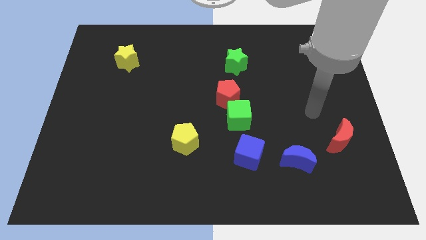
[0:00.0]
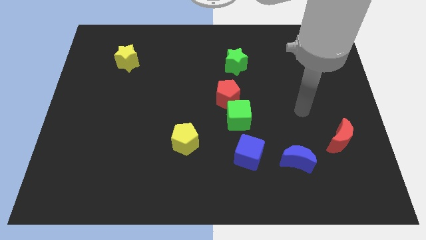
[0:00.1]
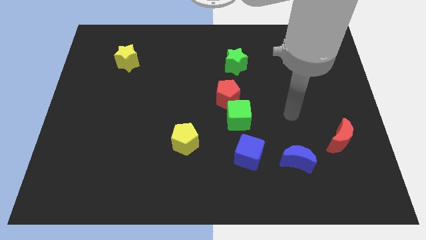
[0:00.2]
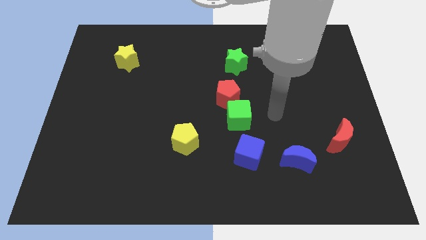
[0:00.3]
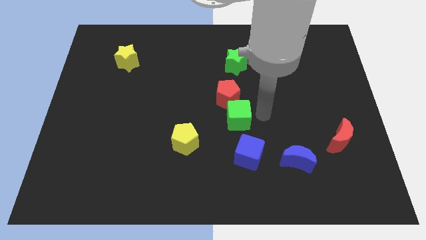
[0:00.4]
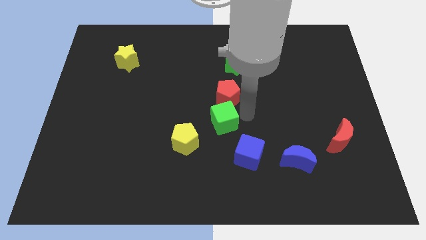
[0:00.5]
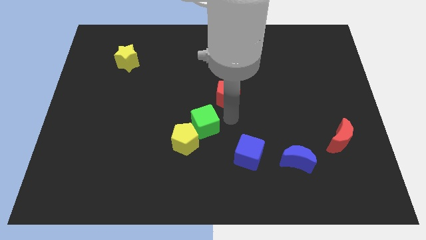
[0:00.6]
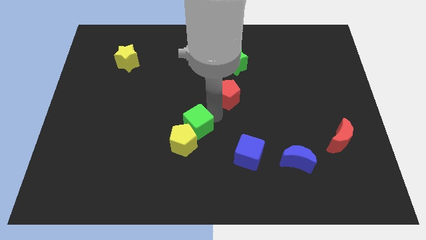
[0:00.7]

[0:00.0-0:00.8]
move the red pentagon away from the green cube

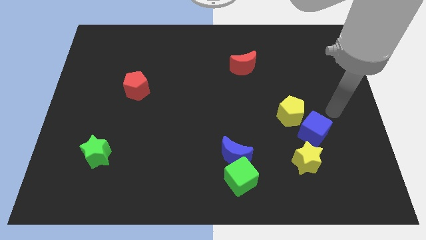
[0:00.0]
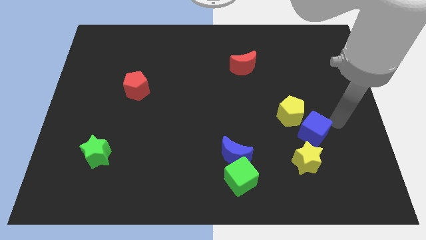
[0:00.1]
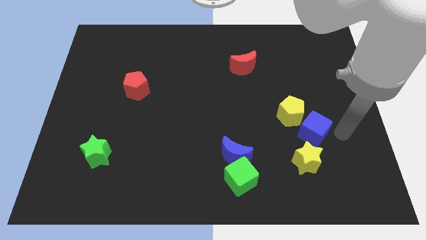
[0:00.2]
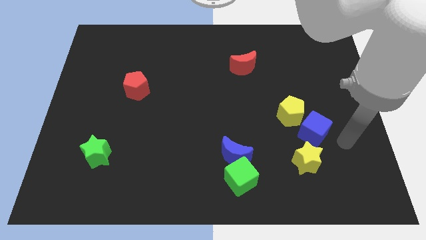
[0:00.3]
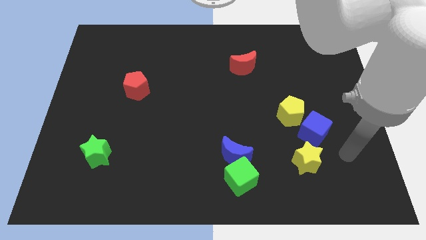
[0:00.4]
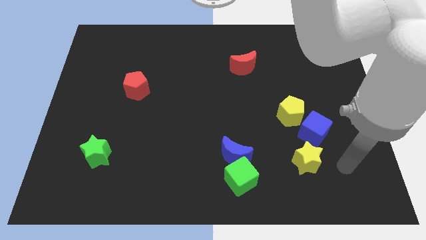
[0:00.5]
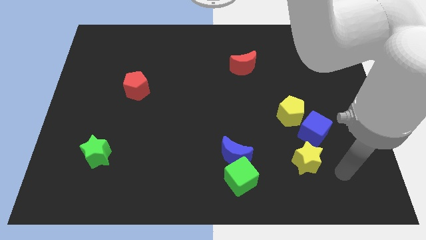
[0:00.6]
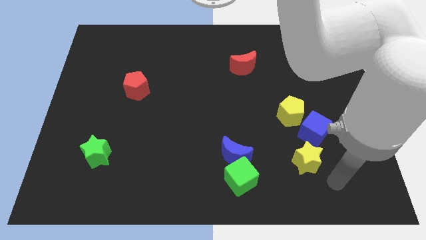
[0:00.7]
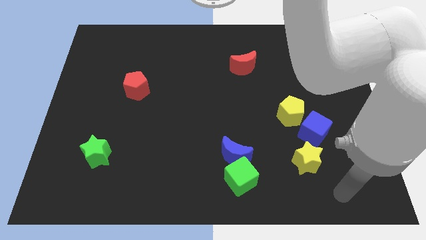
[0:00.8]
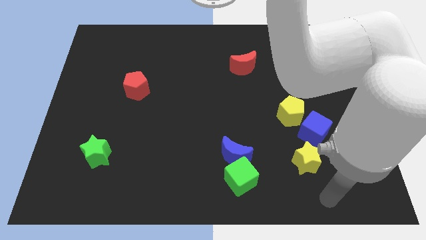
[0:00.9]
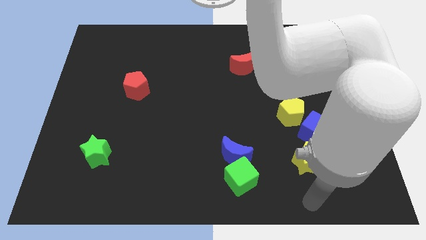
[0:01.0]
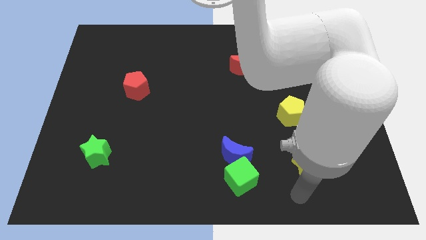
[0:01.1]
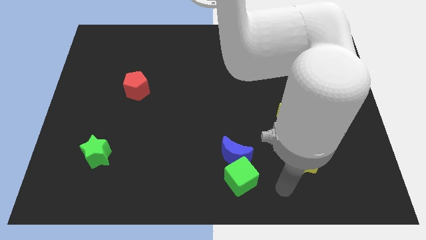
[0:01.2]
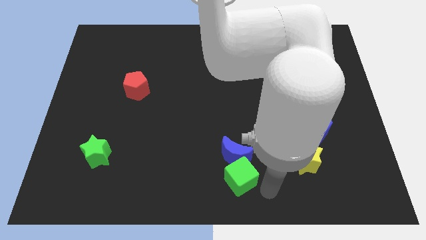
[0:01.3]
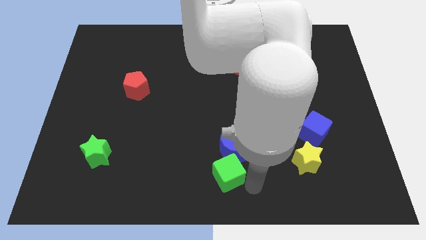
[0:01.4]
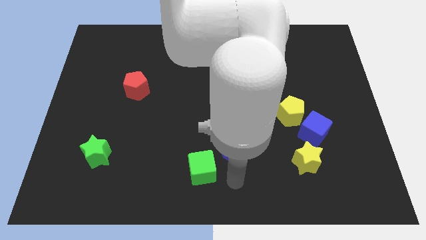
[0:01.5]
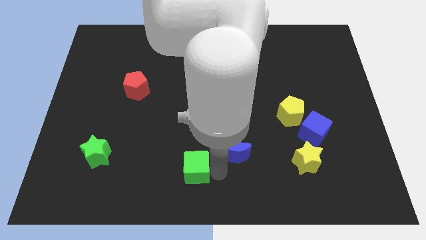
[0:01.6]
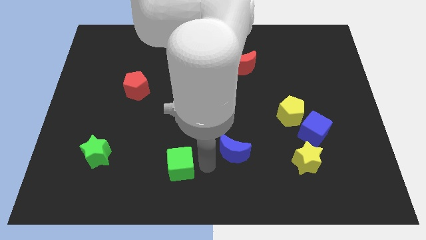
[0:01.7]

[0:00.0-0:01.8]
pull the blue moon apart from the green cube

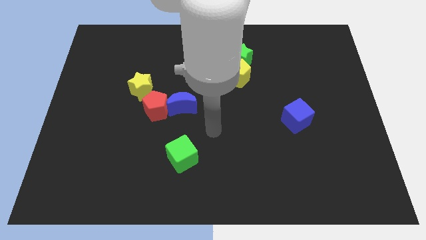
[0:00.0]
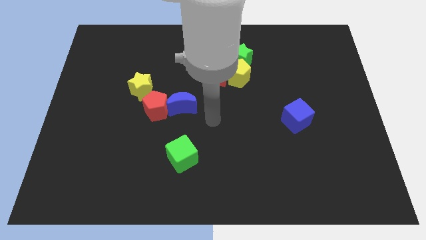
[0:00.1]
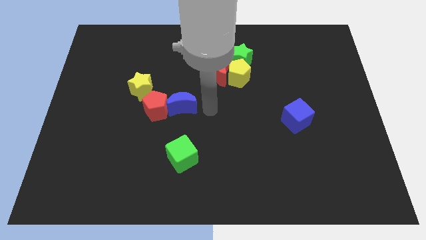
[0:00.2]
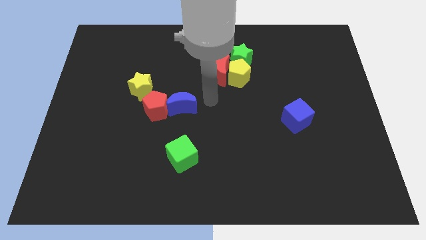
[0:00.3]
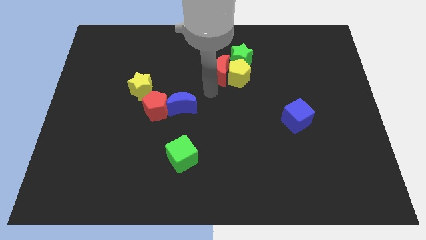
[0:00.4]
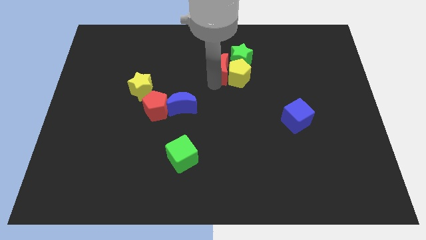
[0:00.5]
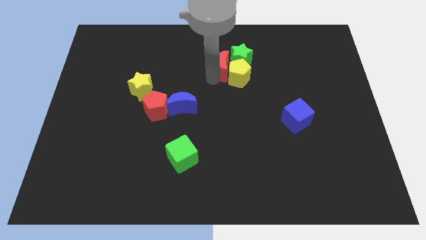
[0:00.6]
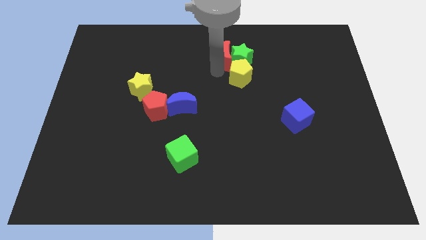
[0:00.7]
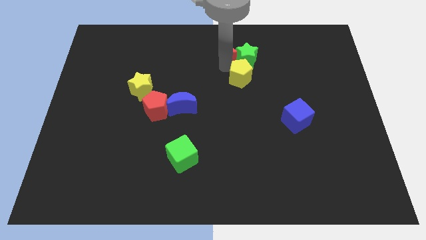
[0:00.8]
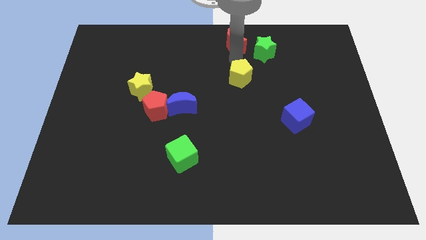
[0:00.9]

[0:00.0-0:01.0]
pull the yellow pentagon apart from the red moon and green star

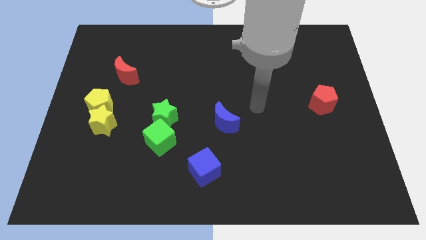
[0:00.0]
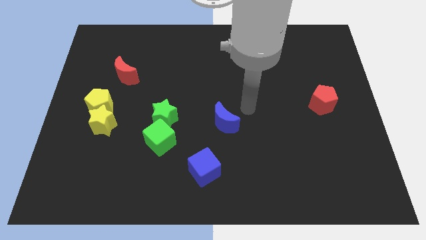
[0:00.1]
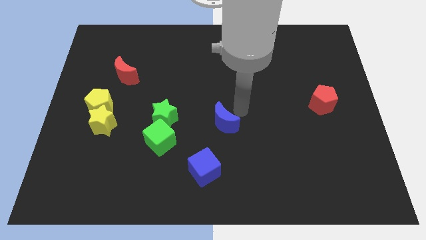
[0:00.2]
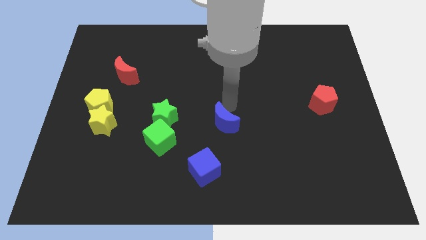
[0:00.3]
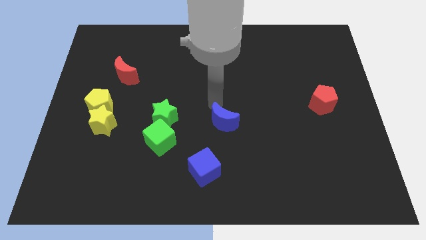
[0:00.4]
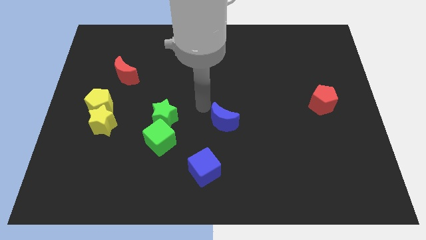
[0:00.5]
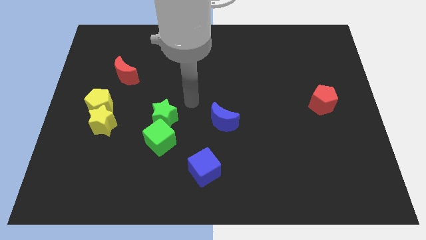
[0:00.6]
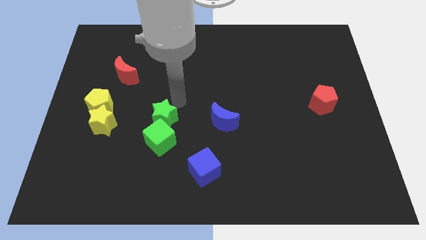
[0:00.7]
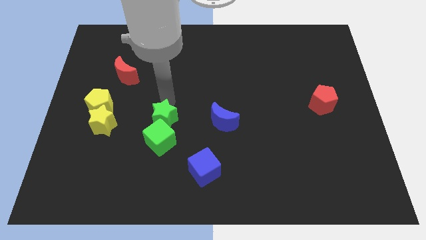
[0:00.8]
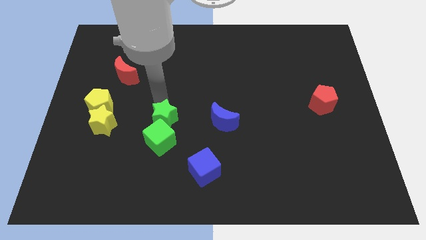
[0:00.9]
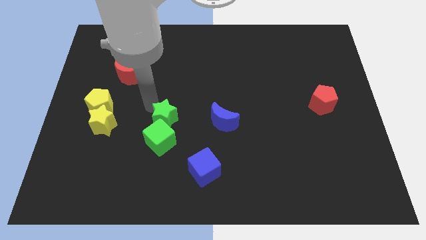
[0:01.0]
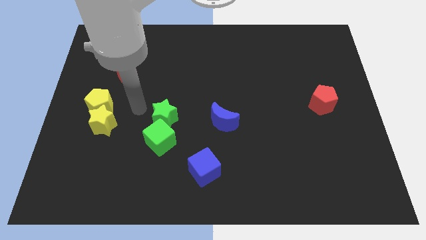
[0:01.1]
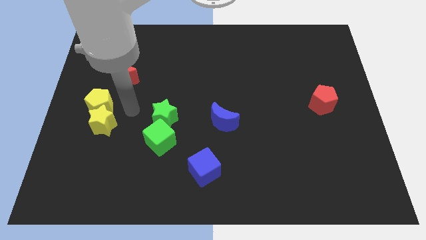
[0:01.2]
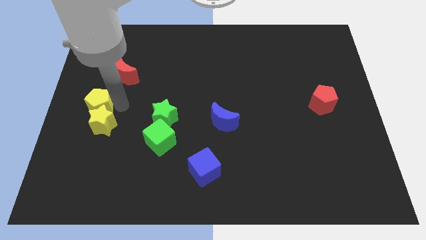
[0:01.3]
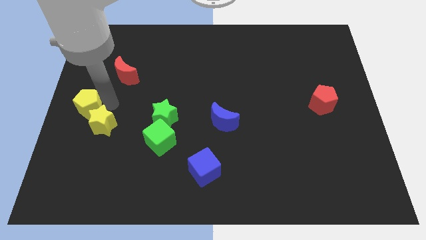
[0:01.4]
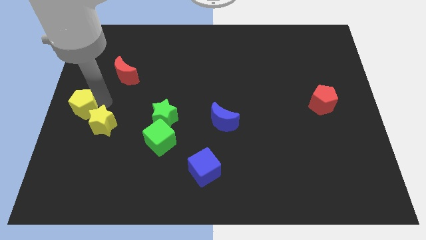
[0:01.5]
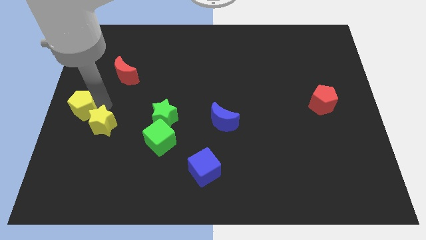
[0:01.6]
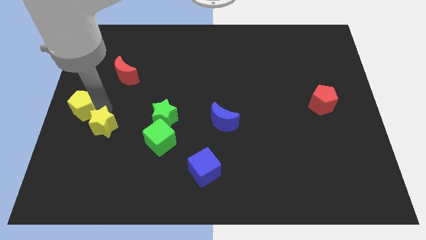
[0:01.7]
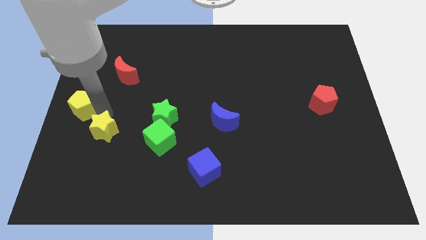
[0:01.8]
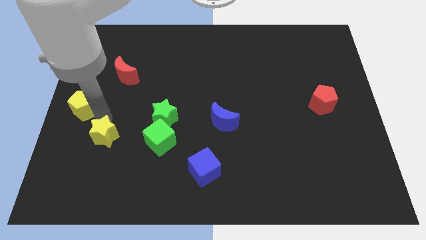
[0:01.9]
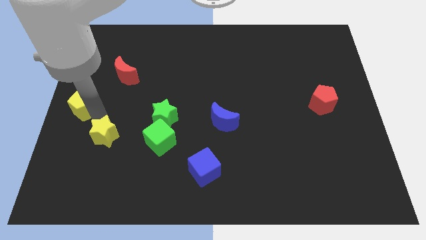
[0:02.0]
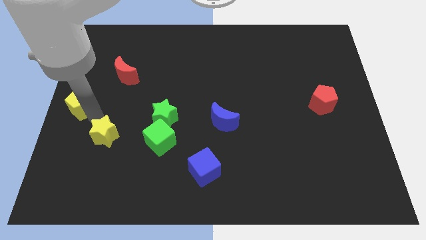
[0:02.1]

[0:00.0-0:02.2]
pull the yellow star apart from the yellow pentagon

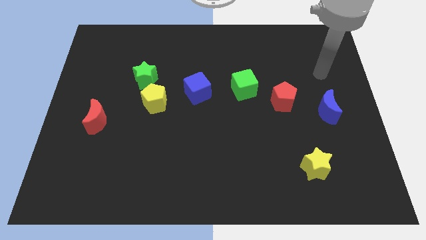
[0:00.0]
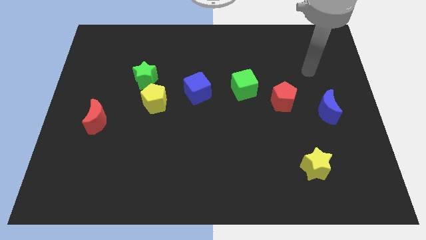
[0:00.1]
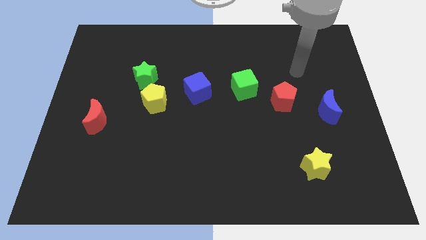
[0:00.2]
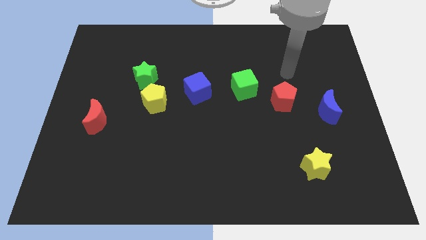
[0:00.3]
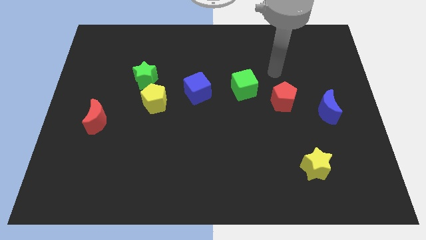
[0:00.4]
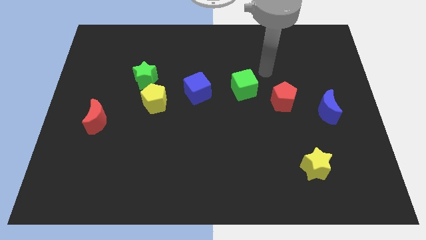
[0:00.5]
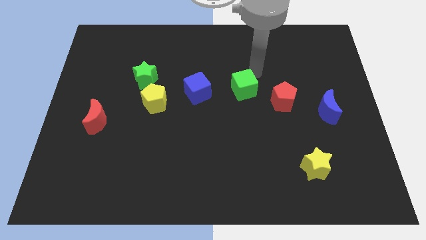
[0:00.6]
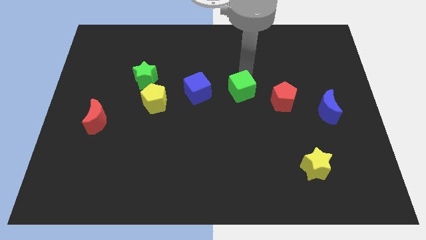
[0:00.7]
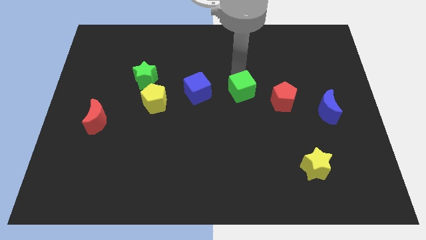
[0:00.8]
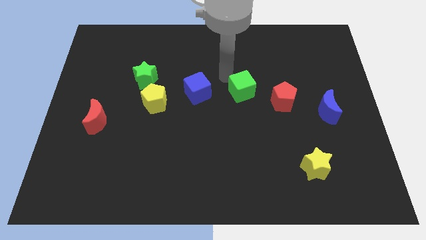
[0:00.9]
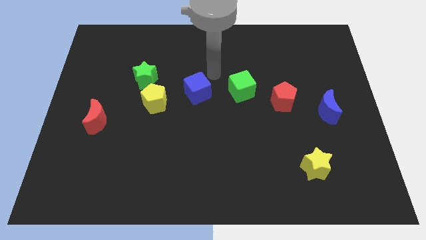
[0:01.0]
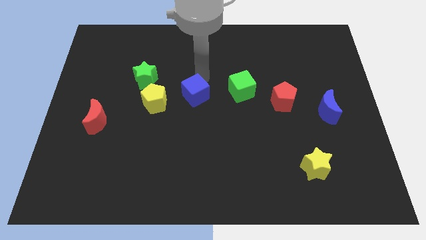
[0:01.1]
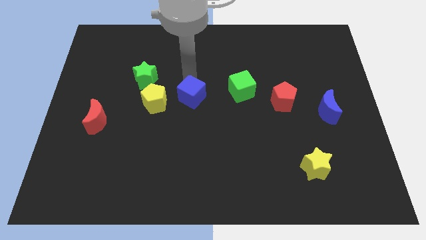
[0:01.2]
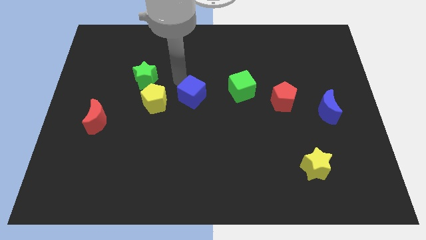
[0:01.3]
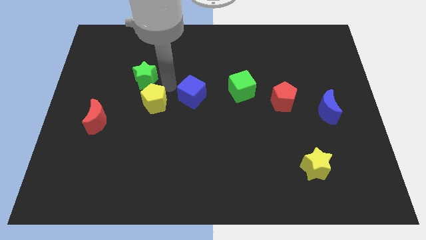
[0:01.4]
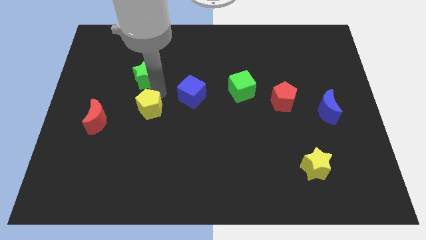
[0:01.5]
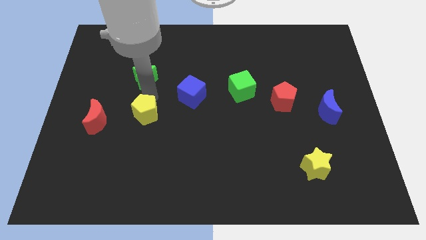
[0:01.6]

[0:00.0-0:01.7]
move the green star away from the yellow pentagon

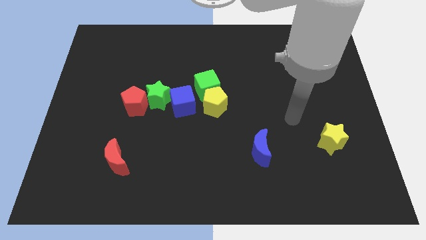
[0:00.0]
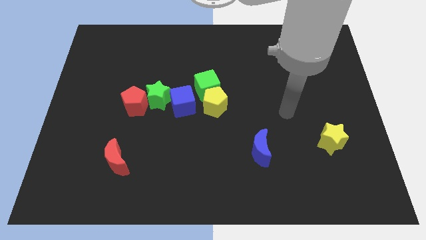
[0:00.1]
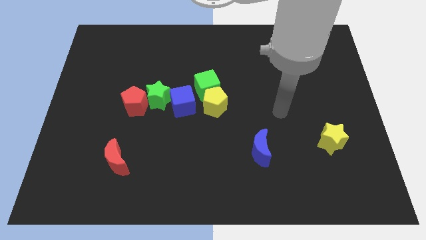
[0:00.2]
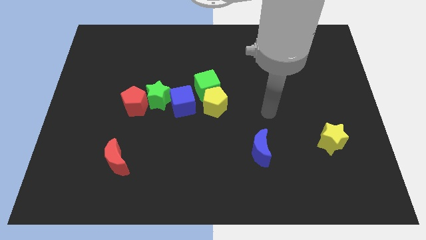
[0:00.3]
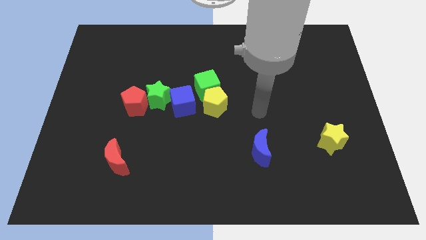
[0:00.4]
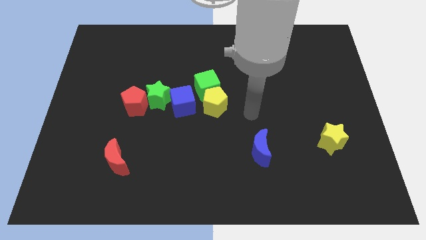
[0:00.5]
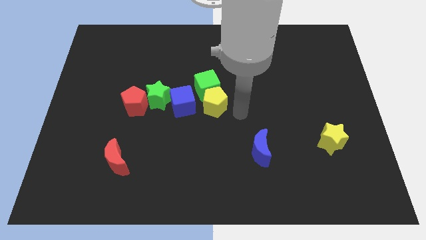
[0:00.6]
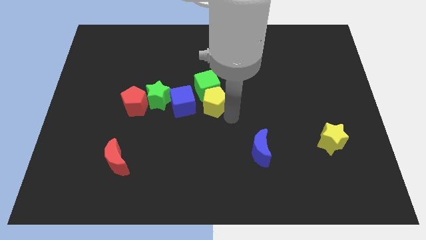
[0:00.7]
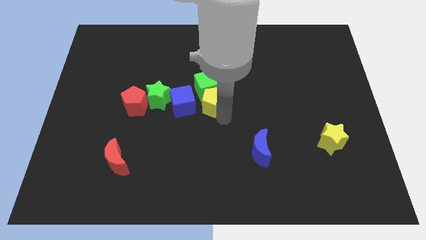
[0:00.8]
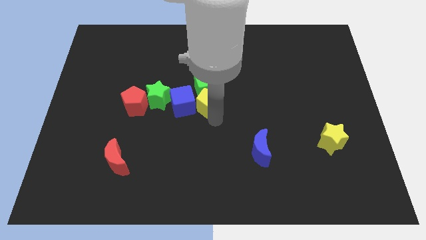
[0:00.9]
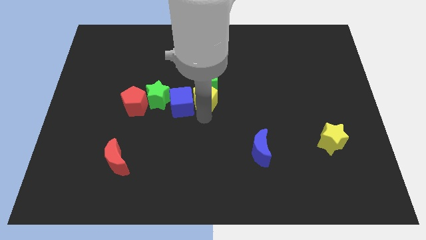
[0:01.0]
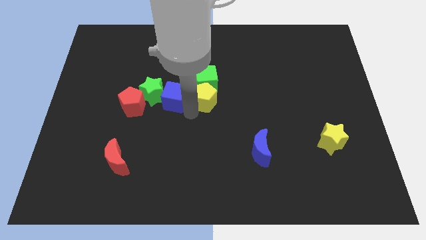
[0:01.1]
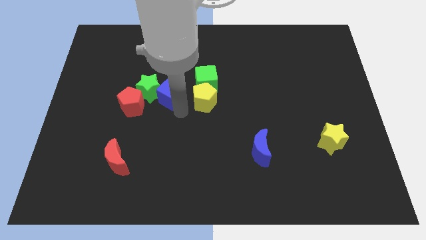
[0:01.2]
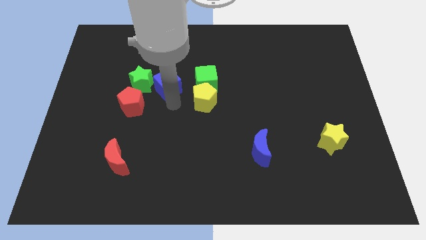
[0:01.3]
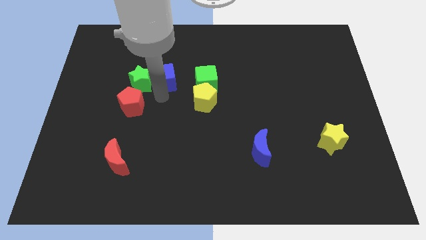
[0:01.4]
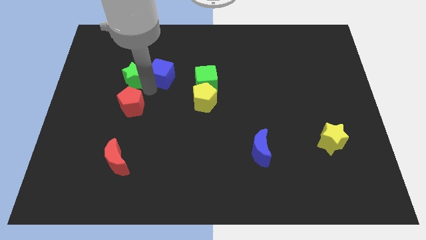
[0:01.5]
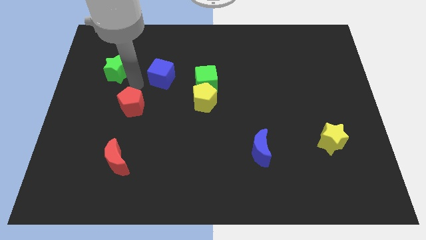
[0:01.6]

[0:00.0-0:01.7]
pull the red pentagon apart from the green star
